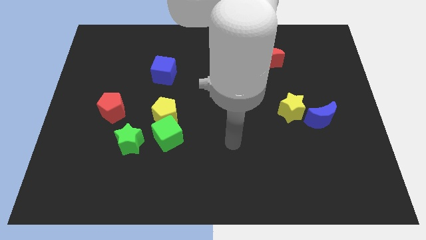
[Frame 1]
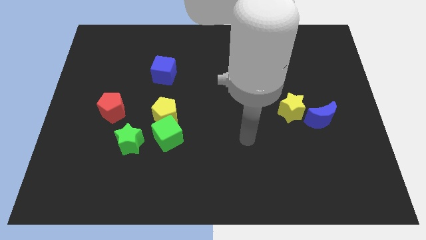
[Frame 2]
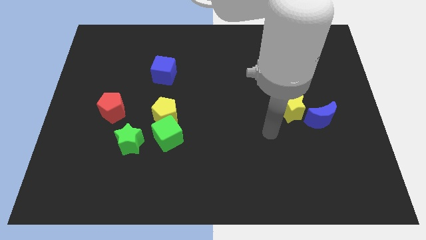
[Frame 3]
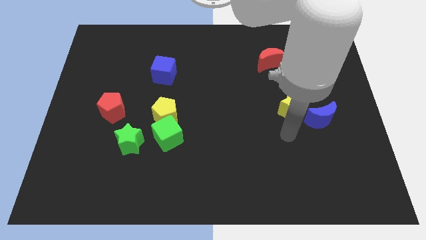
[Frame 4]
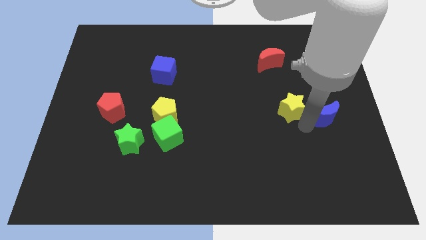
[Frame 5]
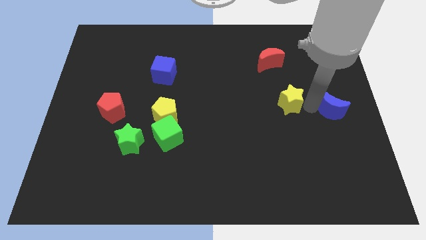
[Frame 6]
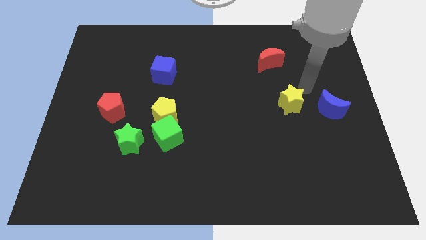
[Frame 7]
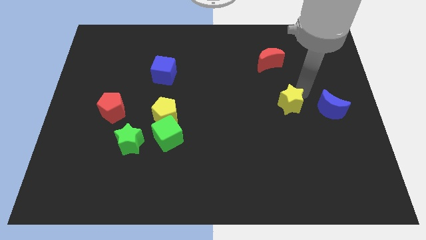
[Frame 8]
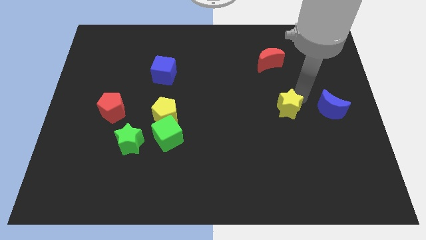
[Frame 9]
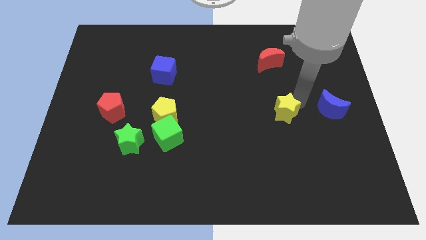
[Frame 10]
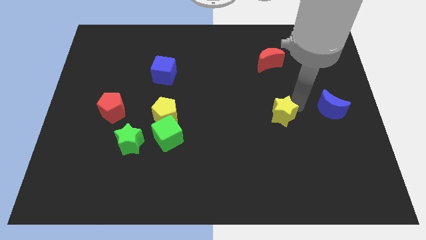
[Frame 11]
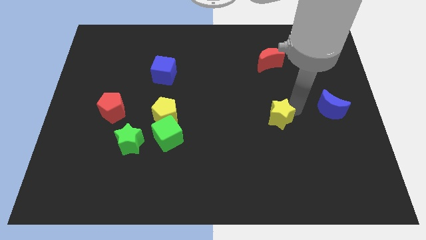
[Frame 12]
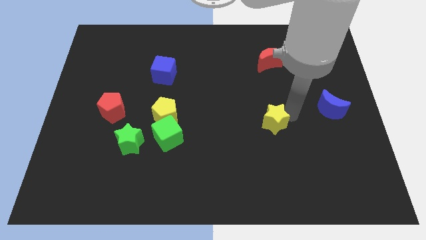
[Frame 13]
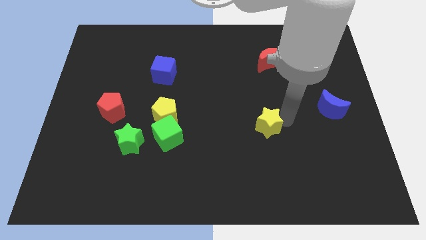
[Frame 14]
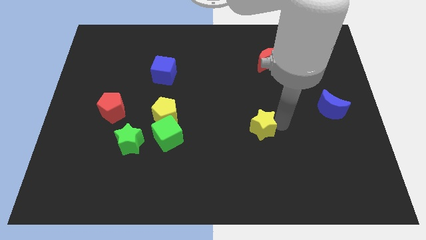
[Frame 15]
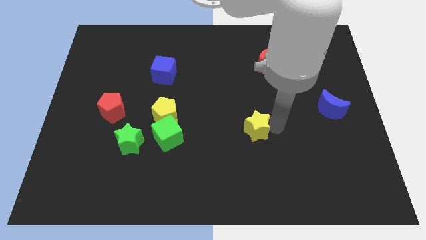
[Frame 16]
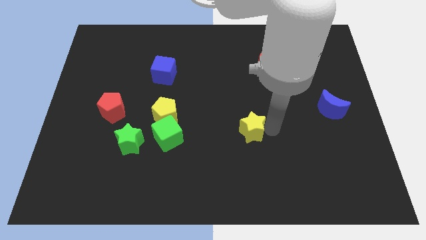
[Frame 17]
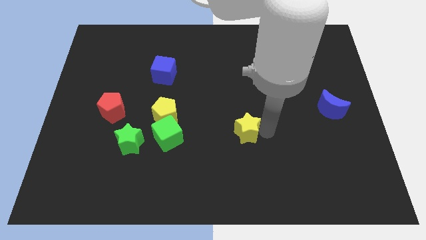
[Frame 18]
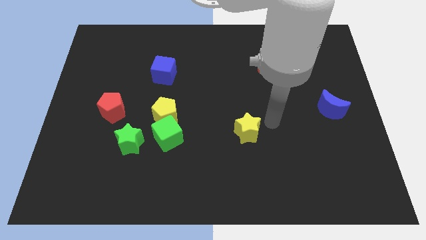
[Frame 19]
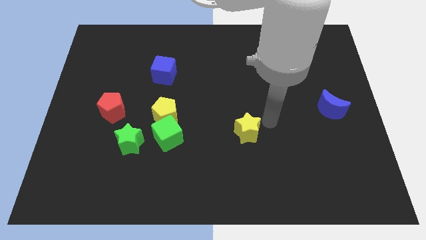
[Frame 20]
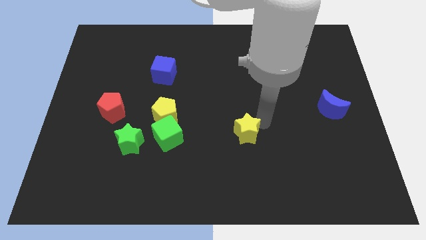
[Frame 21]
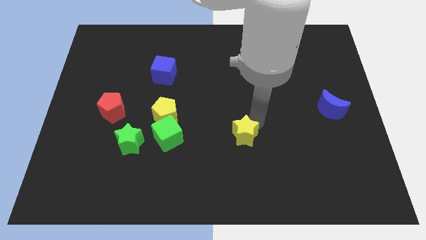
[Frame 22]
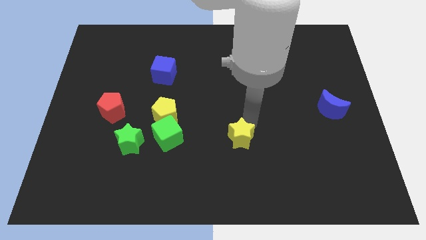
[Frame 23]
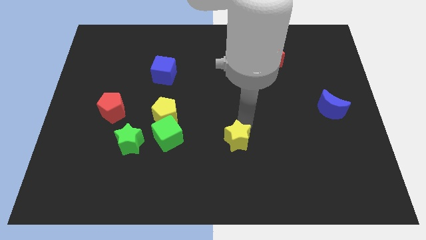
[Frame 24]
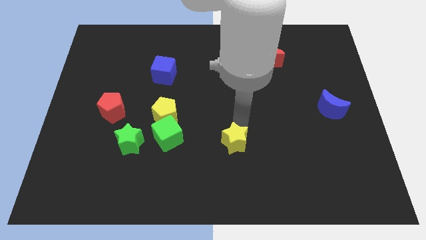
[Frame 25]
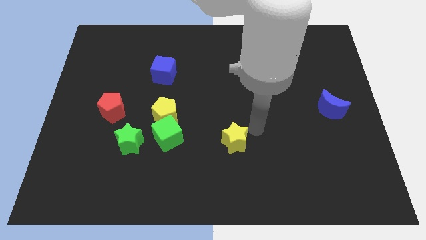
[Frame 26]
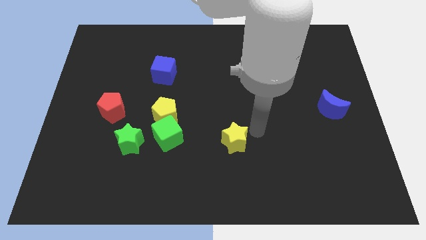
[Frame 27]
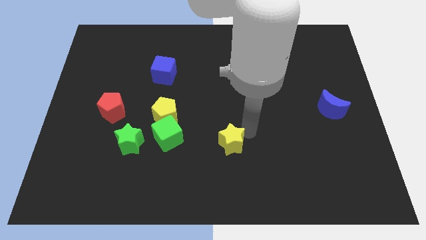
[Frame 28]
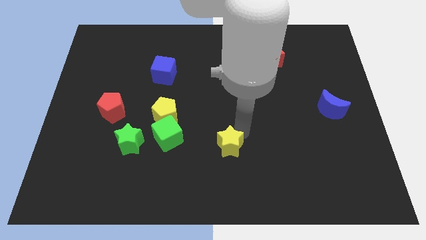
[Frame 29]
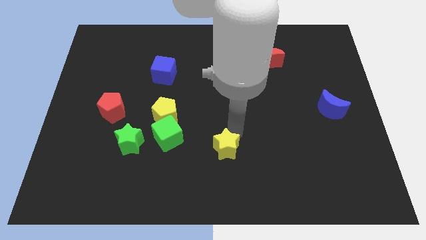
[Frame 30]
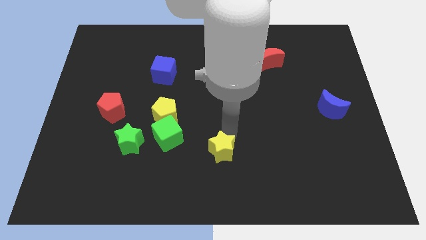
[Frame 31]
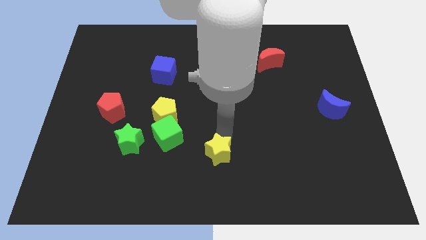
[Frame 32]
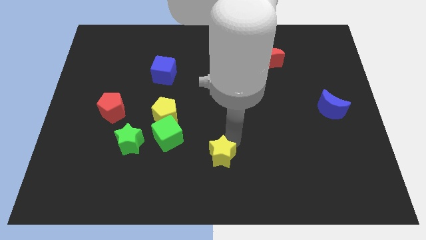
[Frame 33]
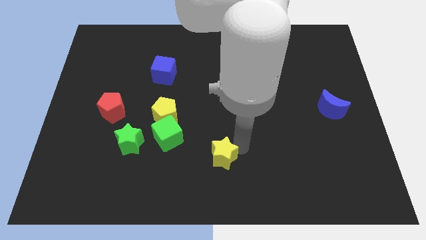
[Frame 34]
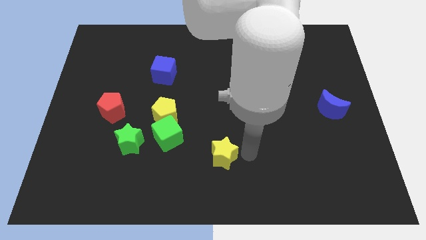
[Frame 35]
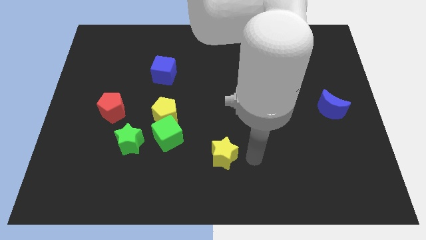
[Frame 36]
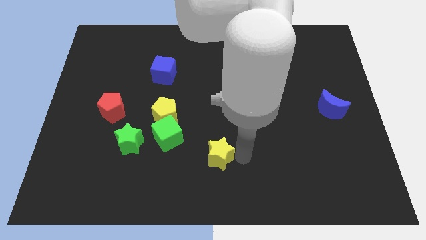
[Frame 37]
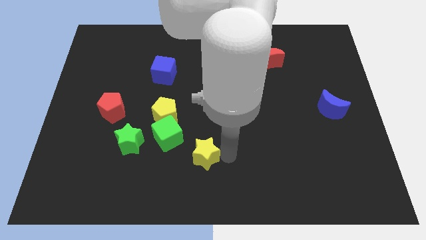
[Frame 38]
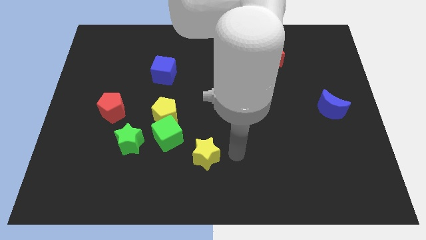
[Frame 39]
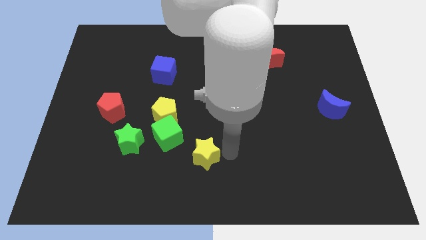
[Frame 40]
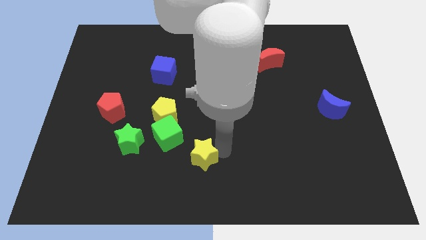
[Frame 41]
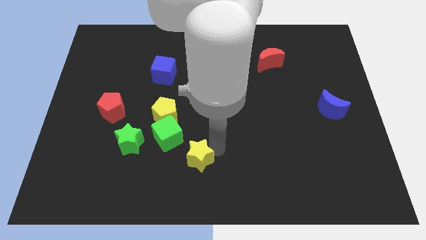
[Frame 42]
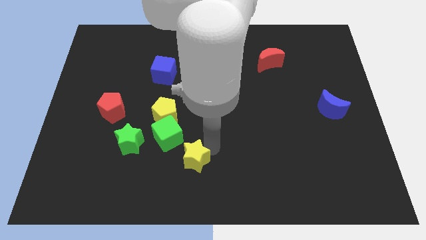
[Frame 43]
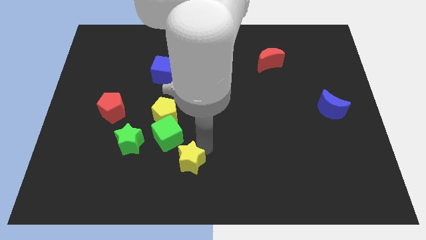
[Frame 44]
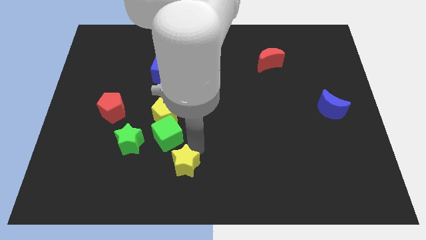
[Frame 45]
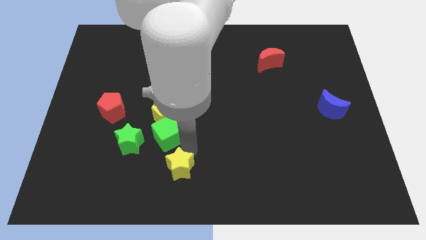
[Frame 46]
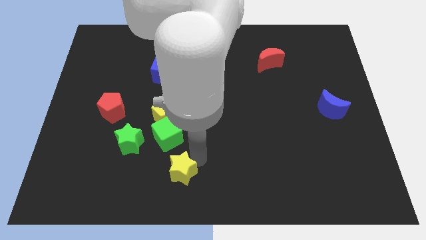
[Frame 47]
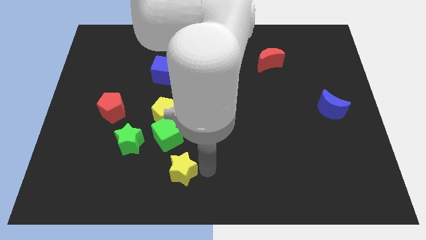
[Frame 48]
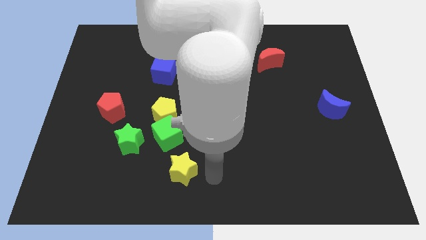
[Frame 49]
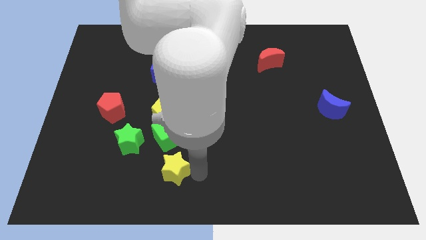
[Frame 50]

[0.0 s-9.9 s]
move the yellow star to the bottom right side of the green star

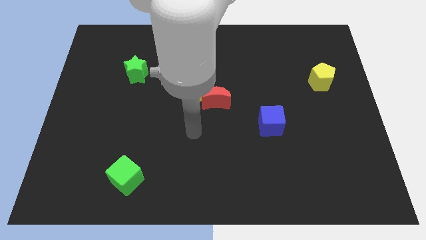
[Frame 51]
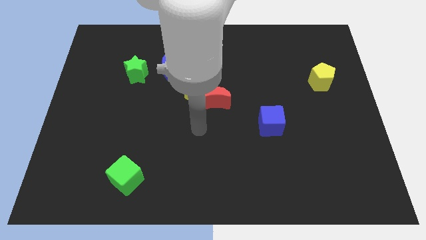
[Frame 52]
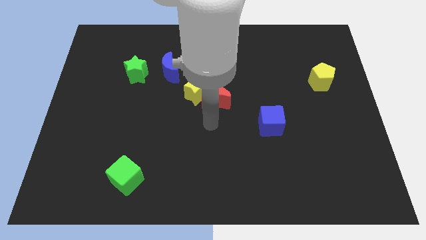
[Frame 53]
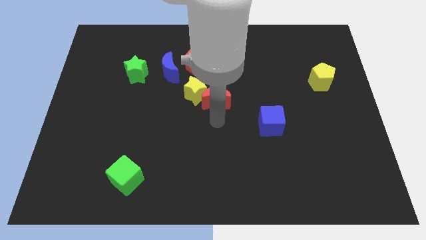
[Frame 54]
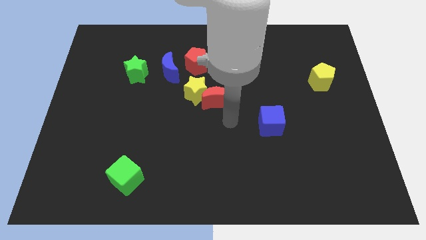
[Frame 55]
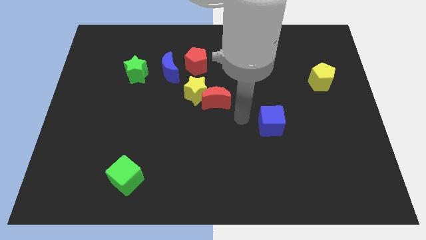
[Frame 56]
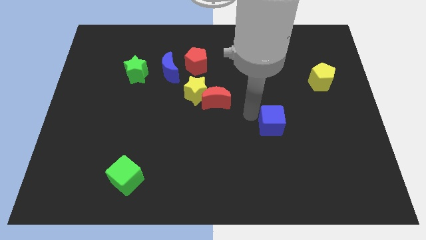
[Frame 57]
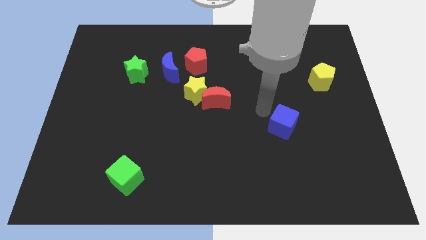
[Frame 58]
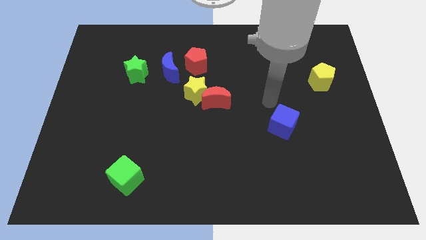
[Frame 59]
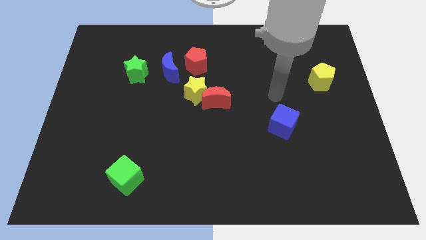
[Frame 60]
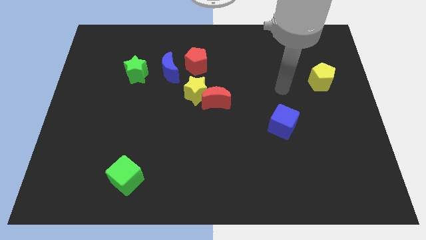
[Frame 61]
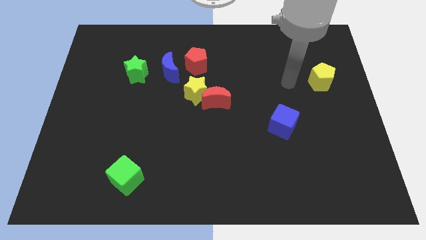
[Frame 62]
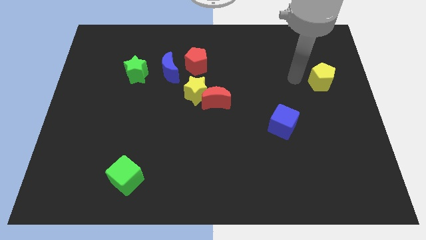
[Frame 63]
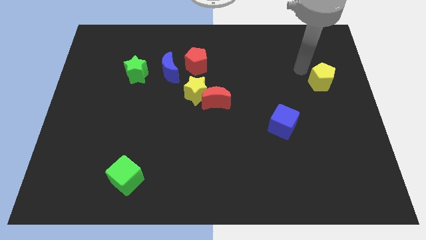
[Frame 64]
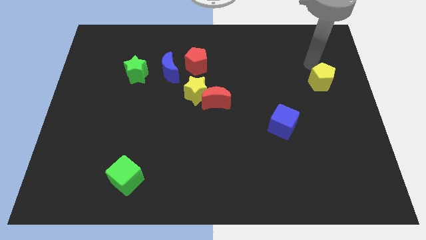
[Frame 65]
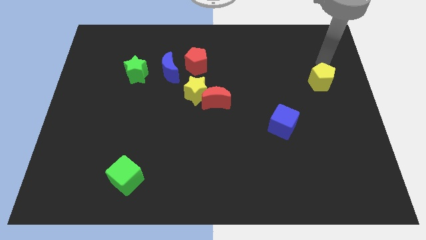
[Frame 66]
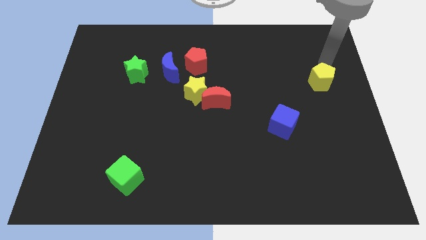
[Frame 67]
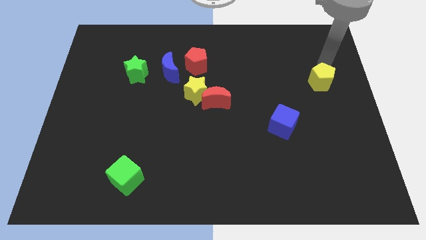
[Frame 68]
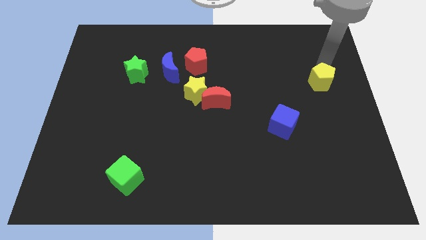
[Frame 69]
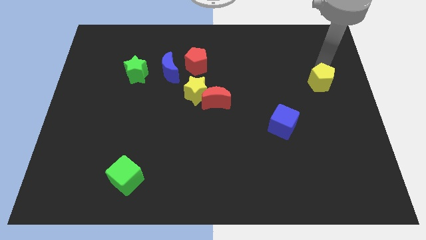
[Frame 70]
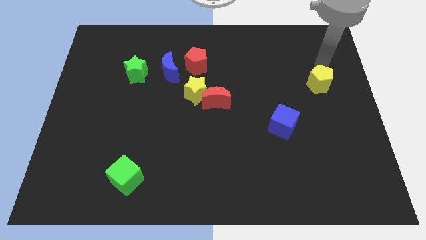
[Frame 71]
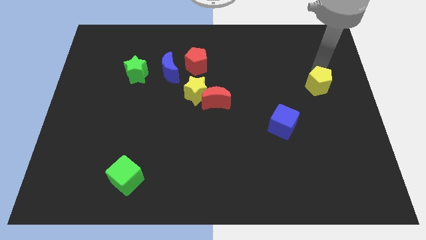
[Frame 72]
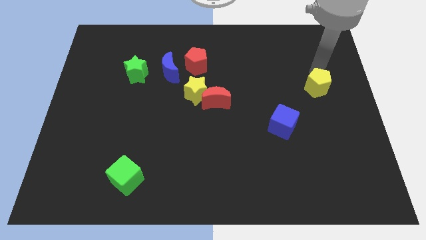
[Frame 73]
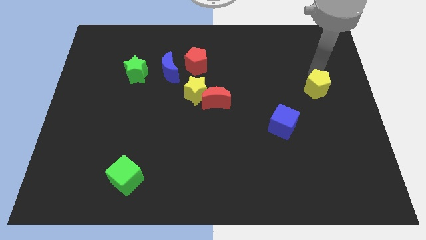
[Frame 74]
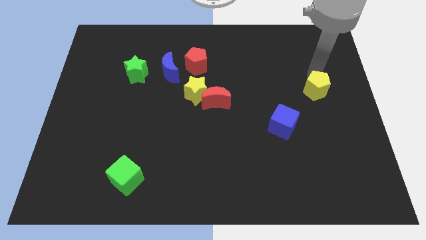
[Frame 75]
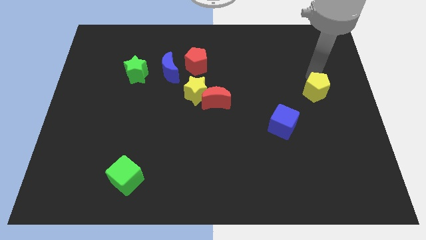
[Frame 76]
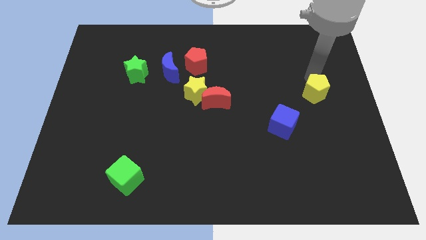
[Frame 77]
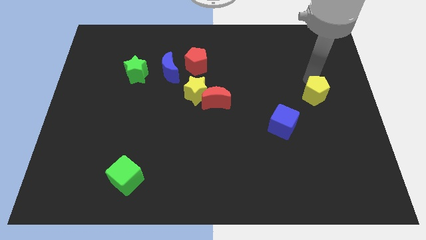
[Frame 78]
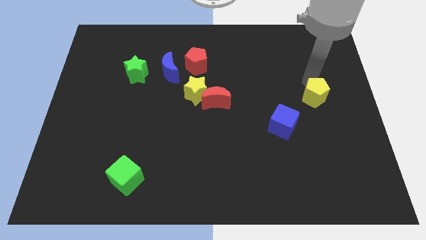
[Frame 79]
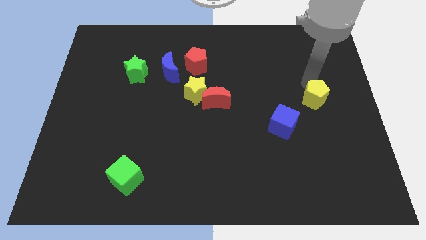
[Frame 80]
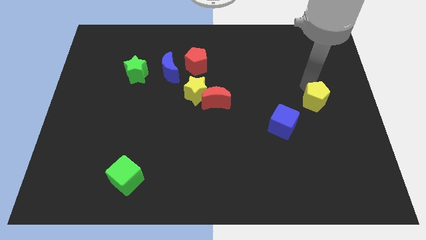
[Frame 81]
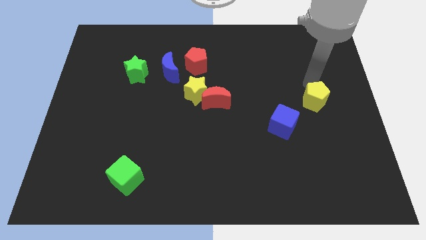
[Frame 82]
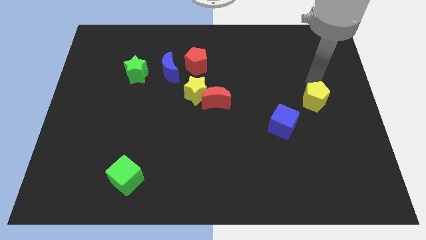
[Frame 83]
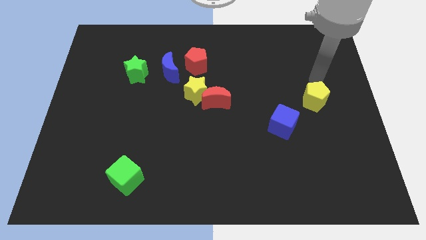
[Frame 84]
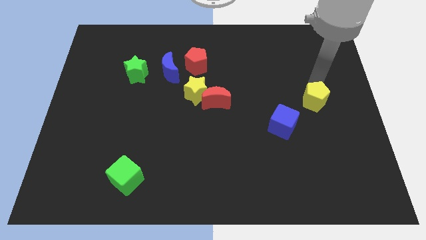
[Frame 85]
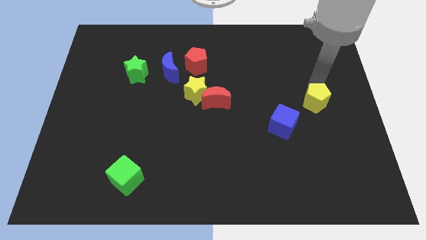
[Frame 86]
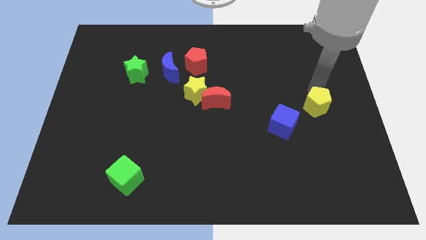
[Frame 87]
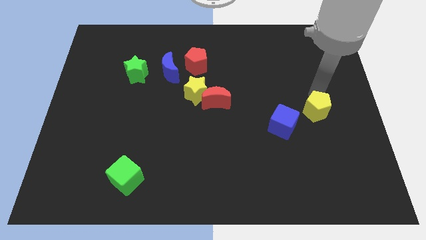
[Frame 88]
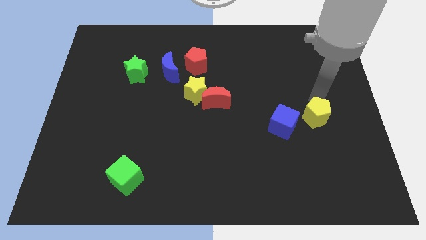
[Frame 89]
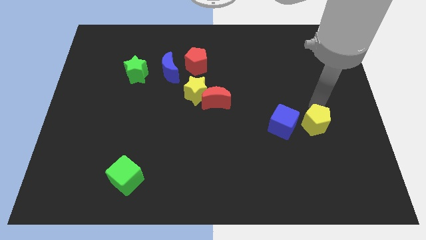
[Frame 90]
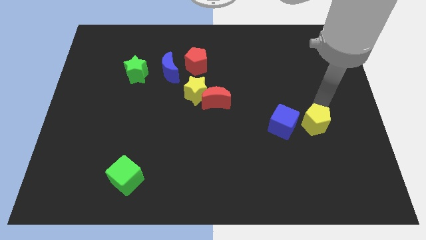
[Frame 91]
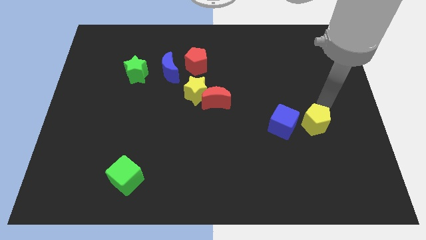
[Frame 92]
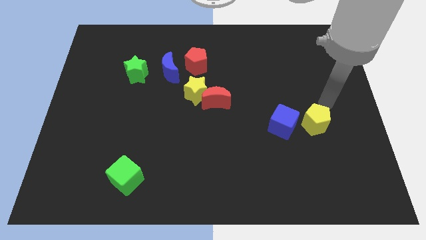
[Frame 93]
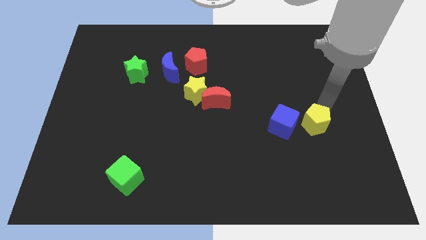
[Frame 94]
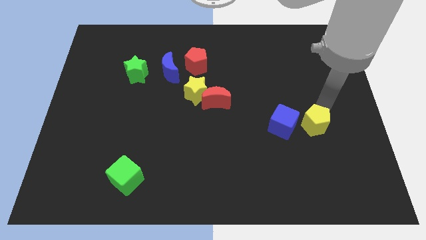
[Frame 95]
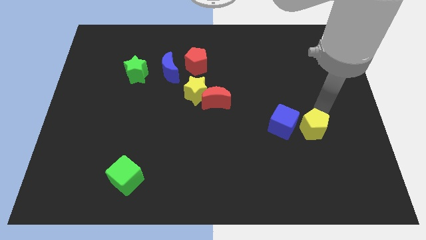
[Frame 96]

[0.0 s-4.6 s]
slide the yellow pentagon to the bottom right of the blue cube
